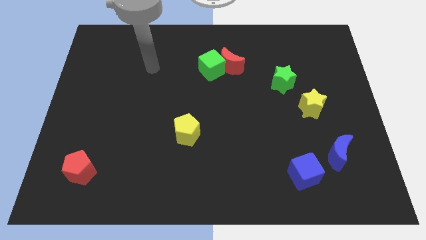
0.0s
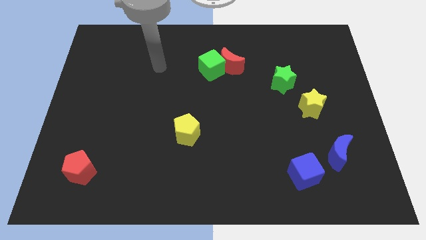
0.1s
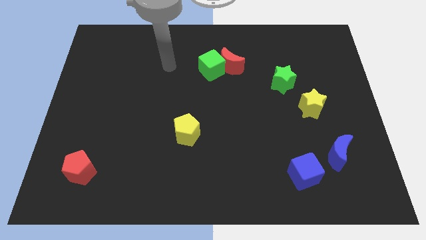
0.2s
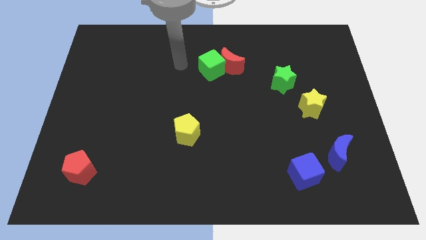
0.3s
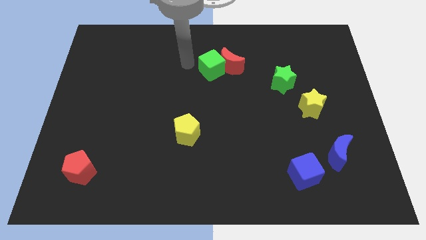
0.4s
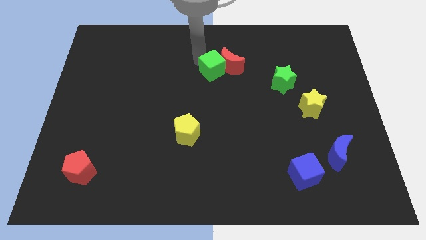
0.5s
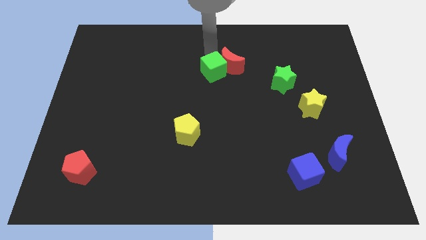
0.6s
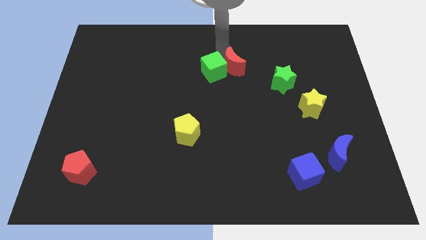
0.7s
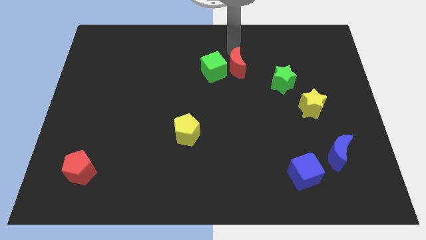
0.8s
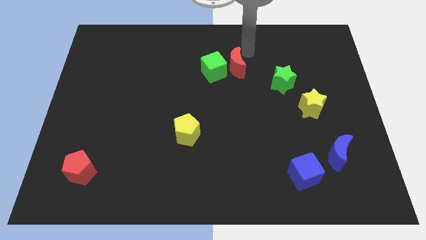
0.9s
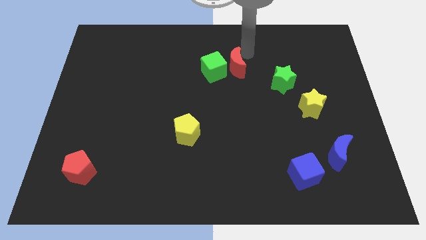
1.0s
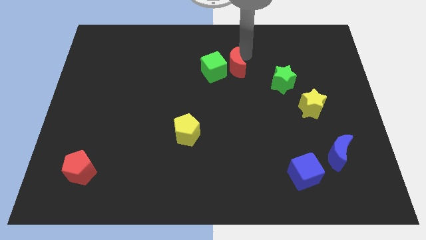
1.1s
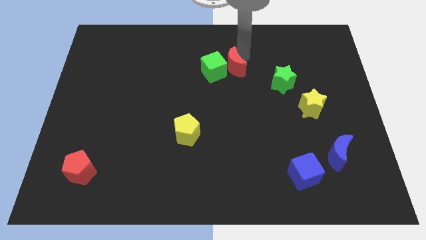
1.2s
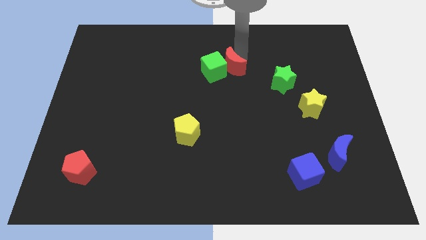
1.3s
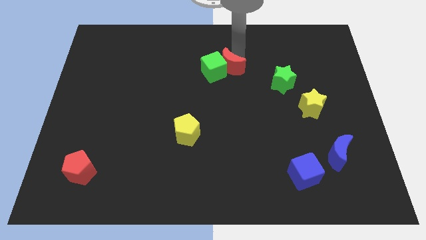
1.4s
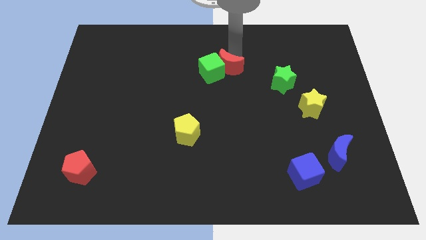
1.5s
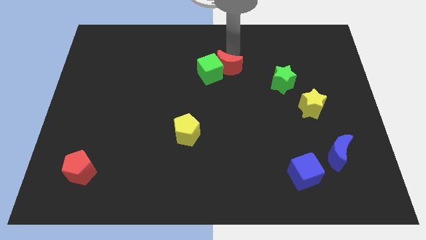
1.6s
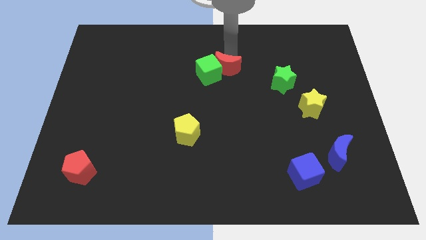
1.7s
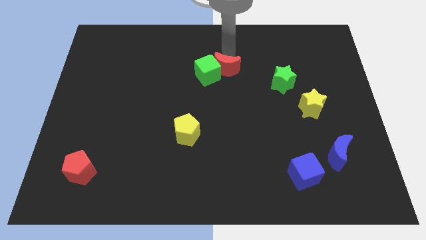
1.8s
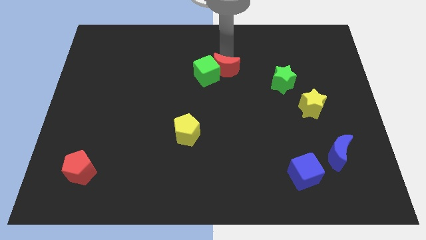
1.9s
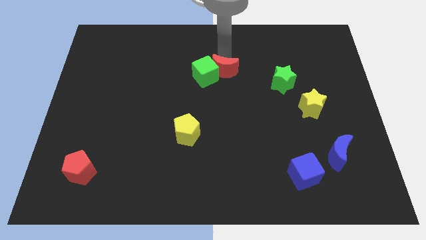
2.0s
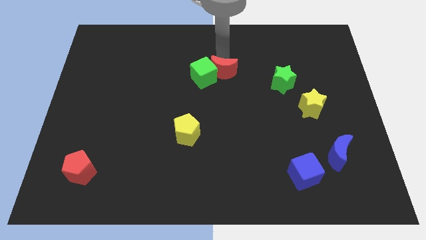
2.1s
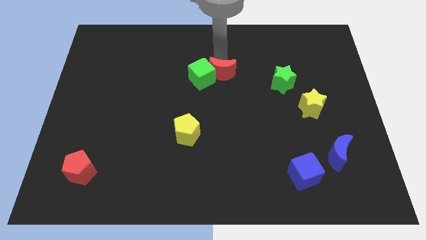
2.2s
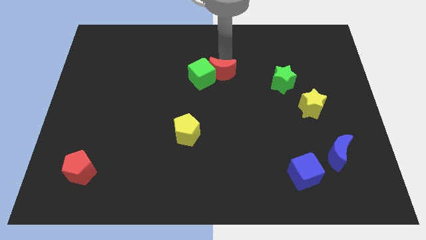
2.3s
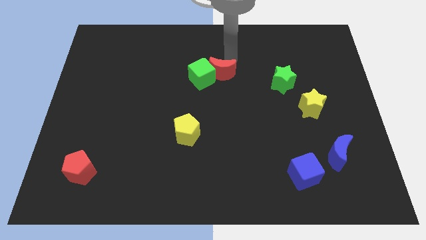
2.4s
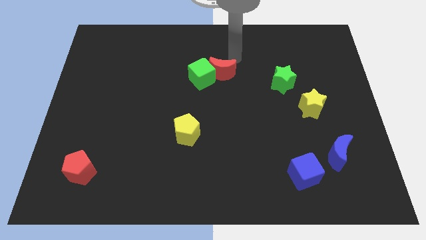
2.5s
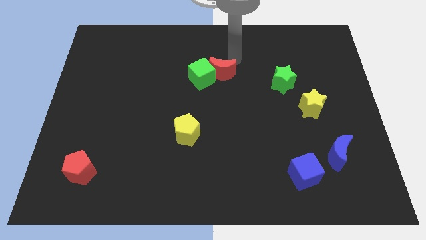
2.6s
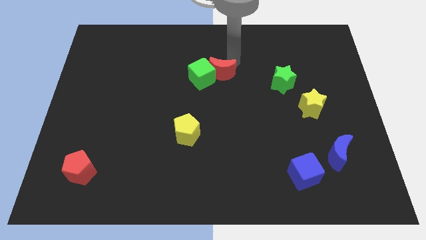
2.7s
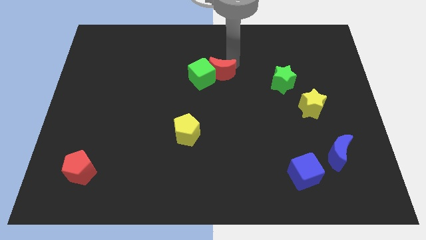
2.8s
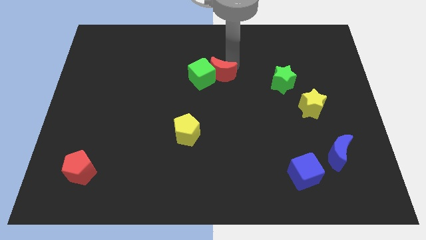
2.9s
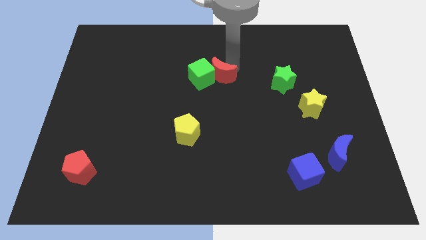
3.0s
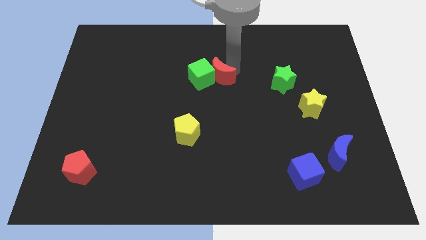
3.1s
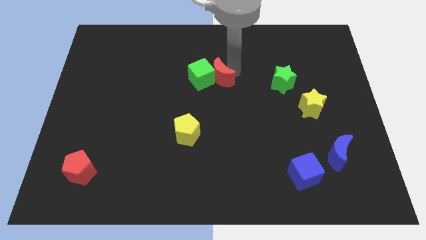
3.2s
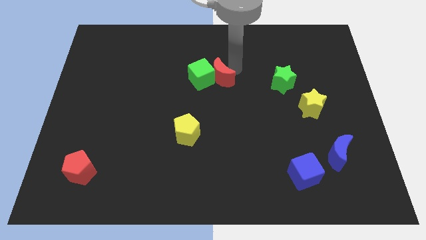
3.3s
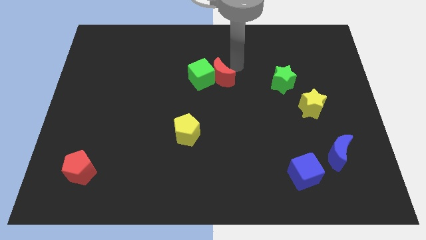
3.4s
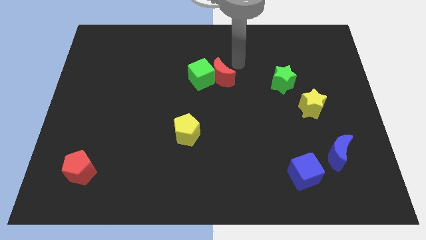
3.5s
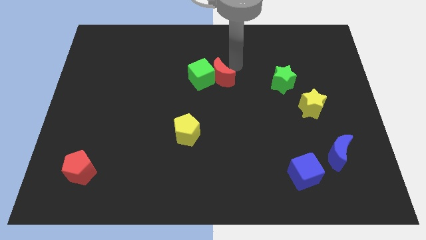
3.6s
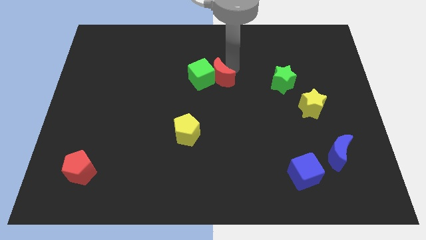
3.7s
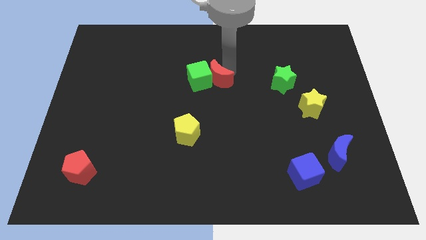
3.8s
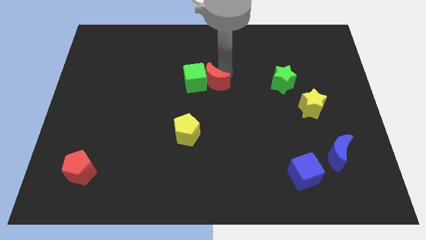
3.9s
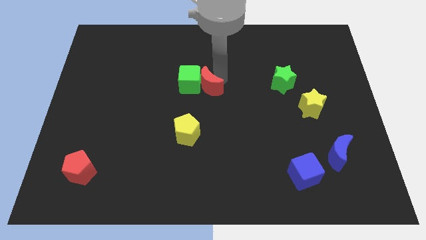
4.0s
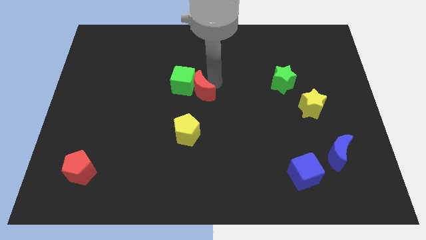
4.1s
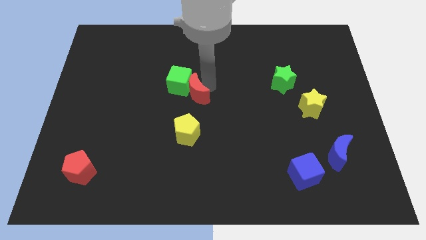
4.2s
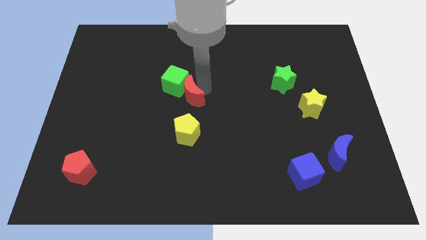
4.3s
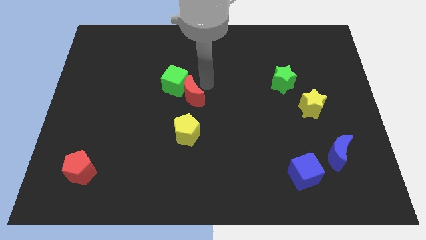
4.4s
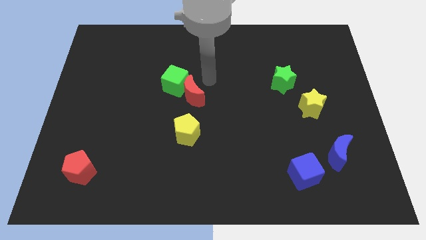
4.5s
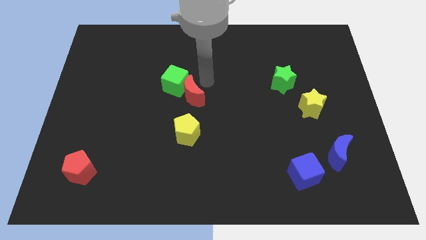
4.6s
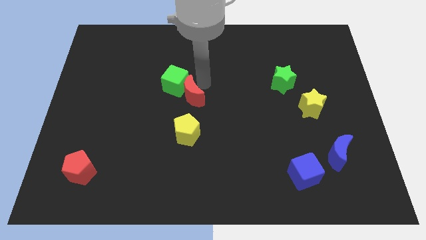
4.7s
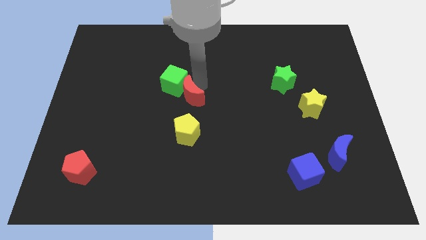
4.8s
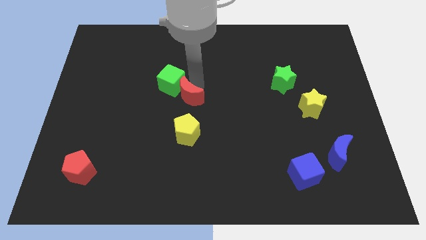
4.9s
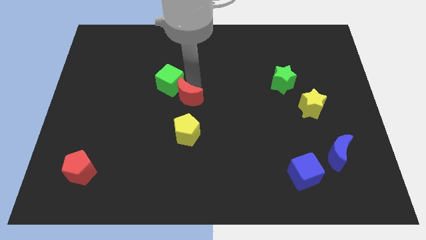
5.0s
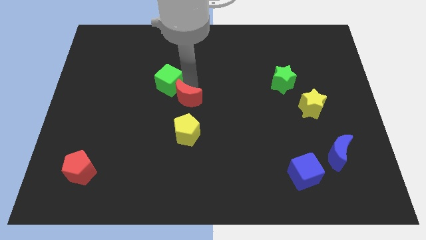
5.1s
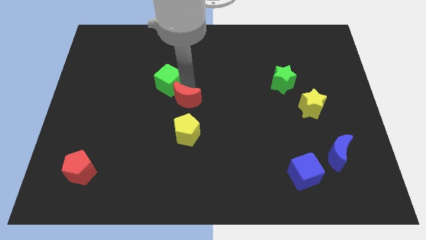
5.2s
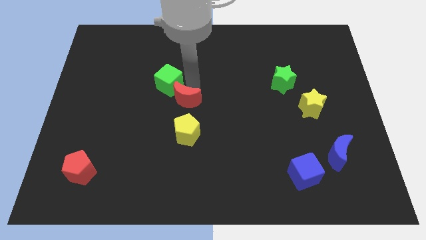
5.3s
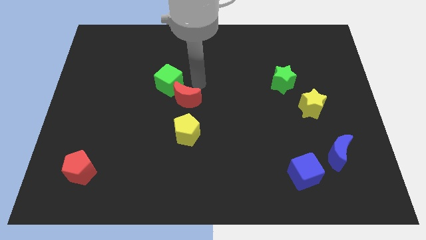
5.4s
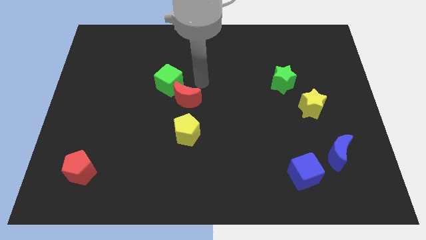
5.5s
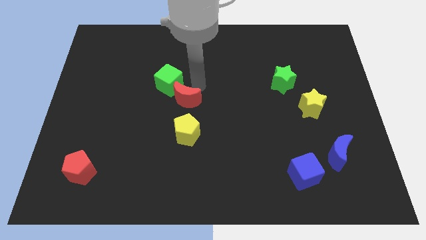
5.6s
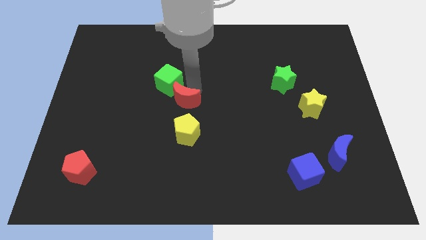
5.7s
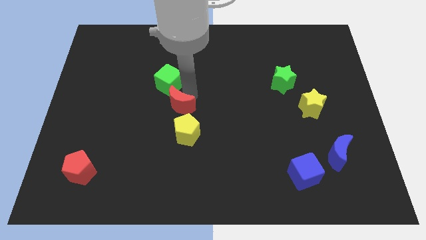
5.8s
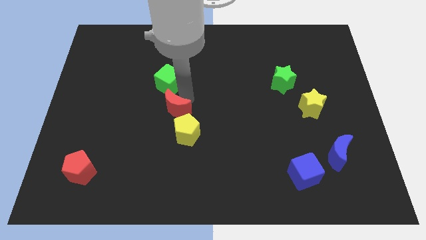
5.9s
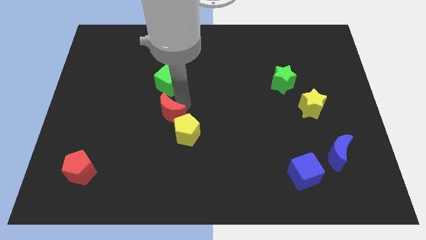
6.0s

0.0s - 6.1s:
push the red moon downwards and then left

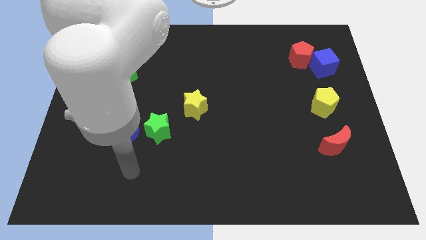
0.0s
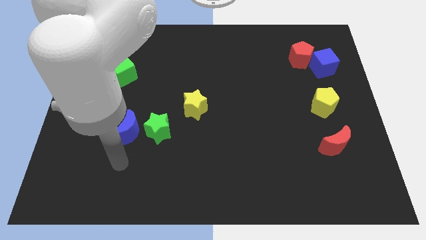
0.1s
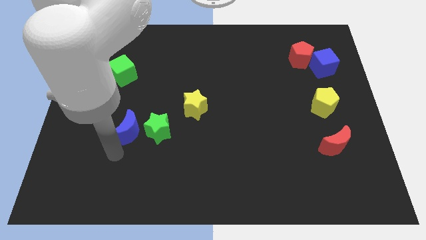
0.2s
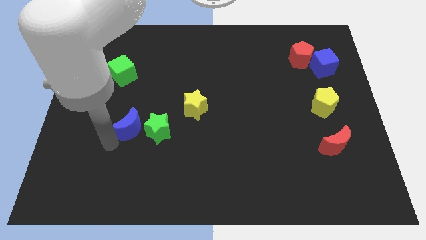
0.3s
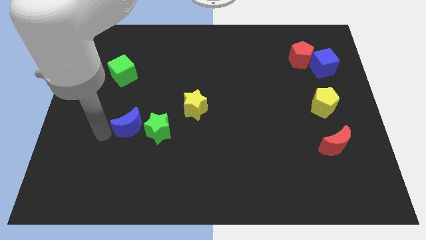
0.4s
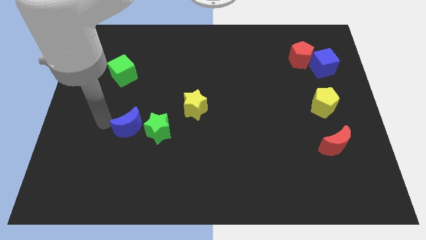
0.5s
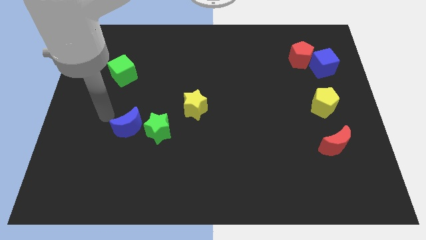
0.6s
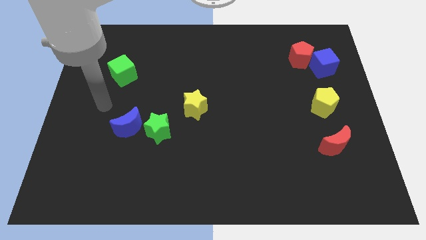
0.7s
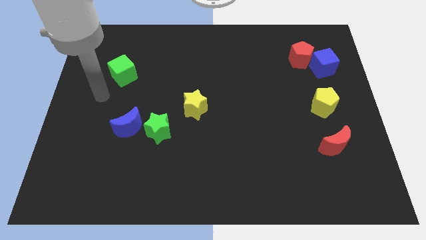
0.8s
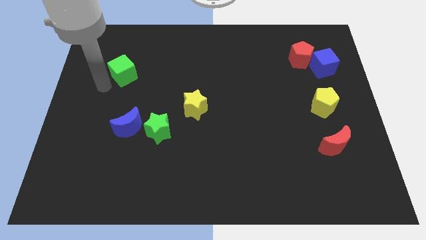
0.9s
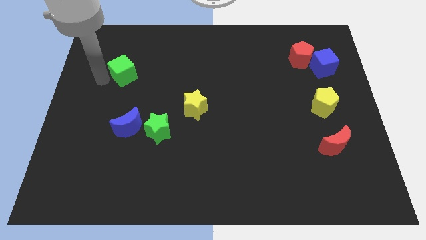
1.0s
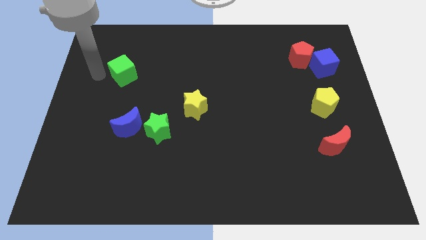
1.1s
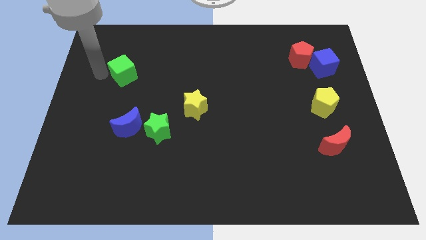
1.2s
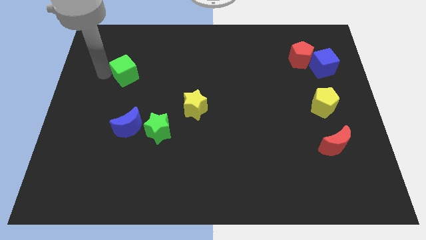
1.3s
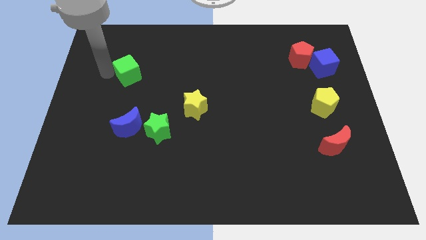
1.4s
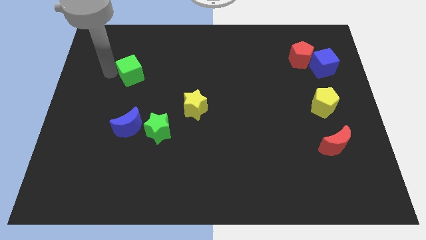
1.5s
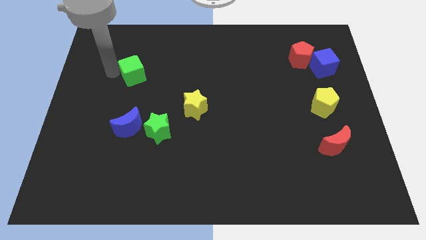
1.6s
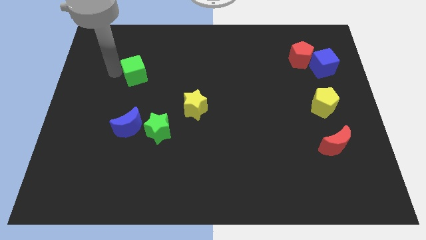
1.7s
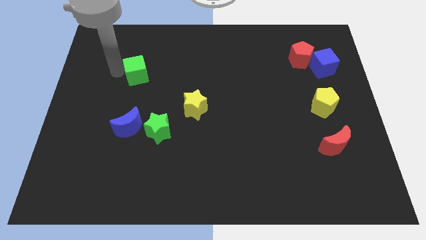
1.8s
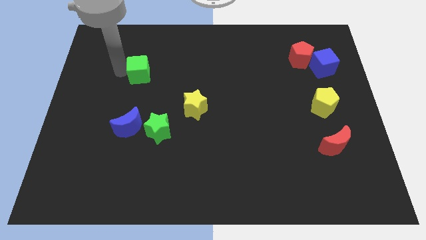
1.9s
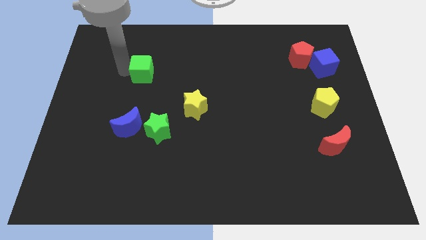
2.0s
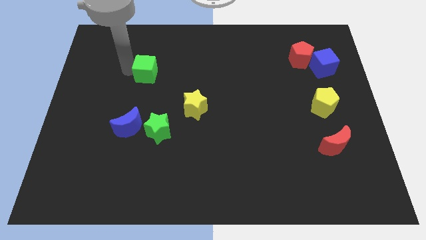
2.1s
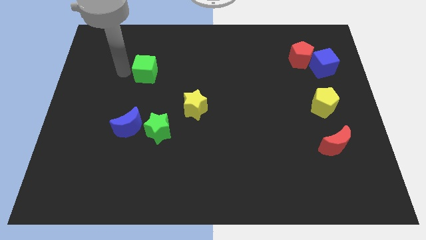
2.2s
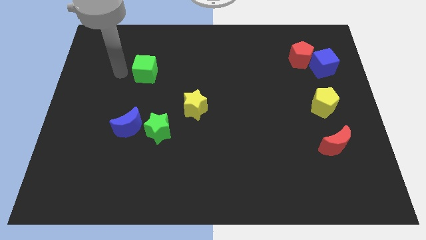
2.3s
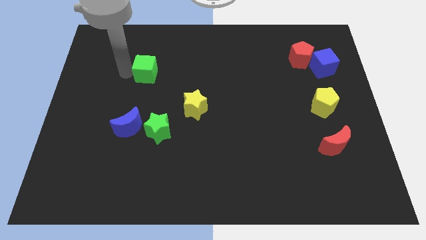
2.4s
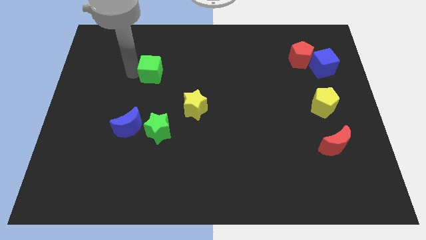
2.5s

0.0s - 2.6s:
slightly push the green cube right
